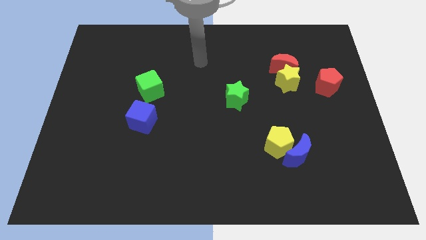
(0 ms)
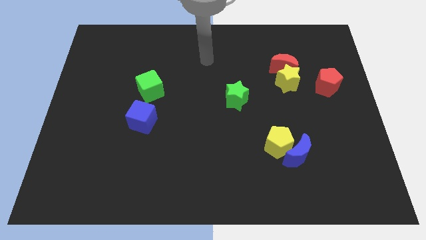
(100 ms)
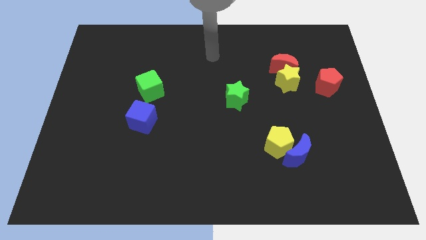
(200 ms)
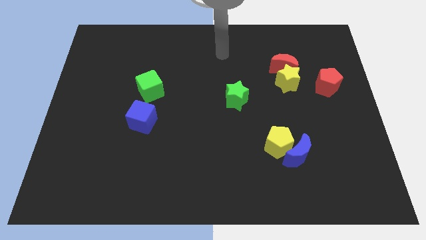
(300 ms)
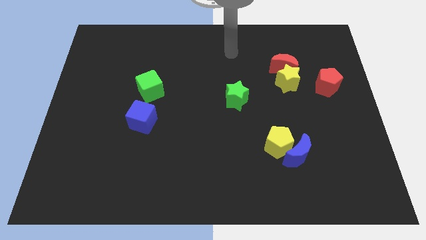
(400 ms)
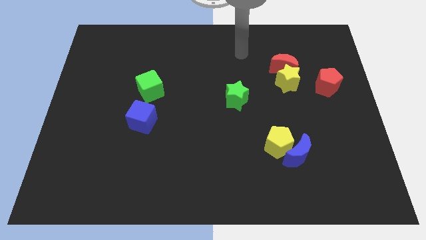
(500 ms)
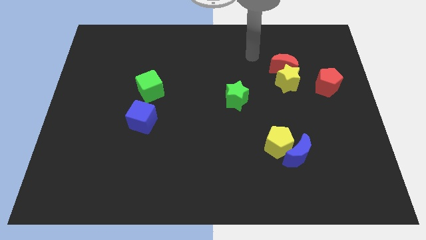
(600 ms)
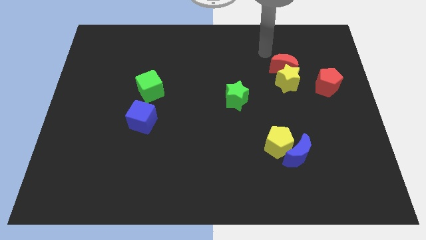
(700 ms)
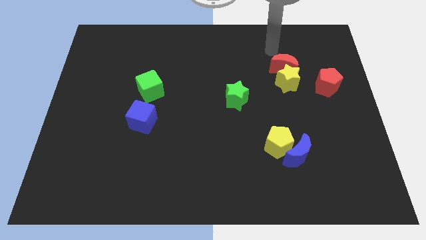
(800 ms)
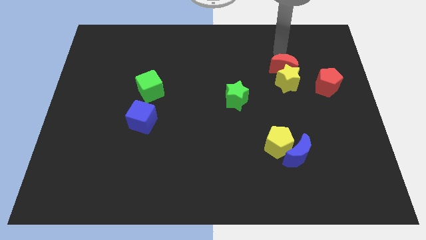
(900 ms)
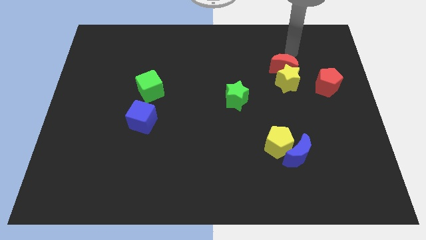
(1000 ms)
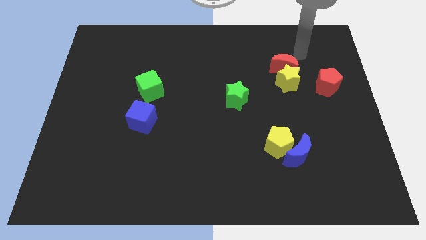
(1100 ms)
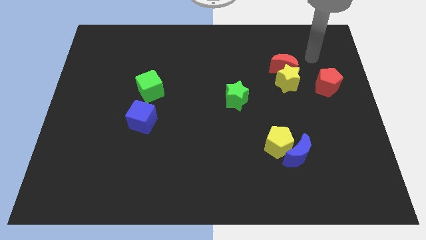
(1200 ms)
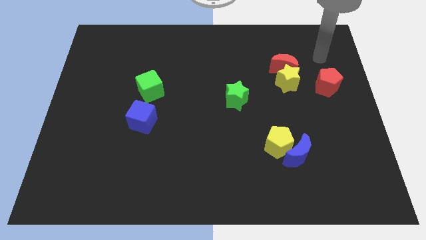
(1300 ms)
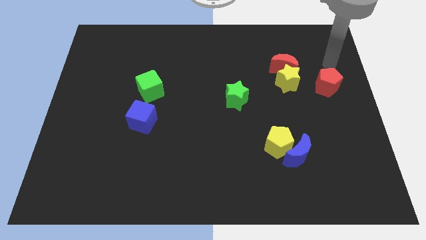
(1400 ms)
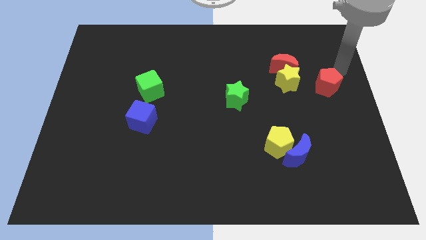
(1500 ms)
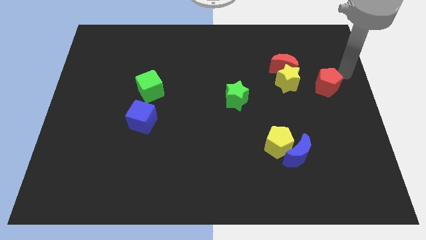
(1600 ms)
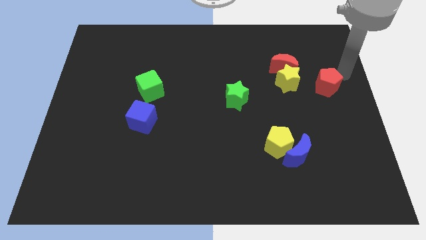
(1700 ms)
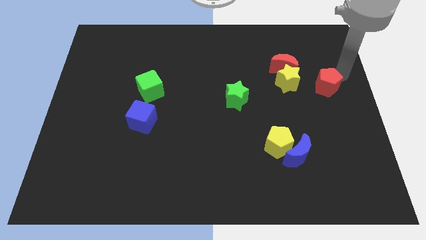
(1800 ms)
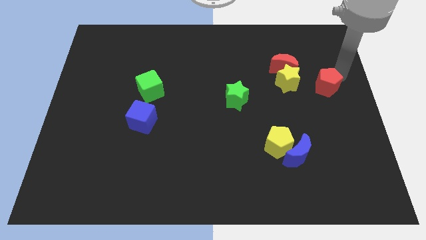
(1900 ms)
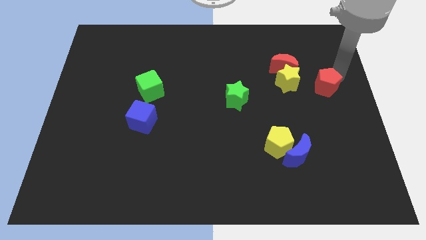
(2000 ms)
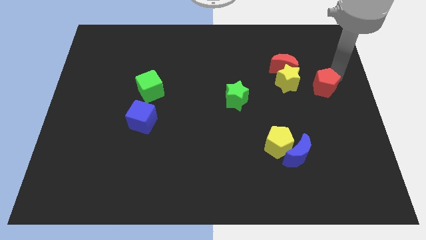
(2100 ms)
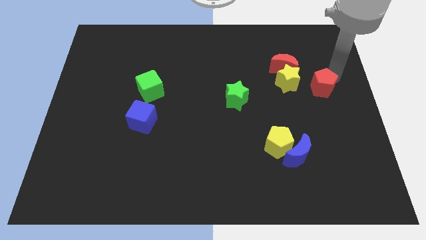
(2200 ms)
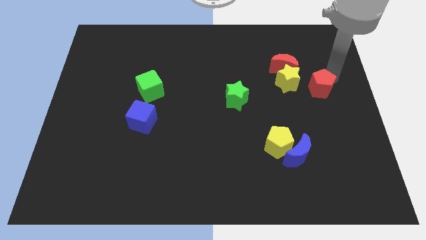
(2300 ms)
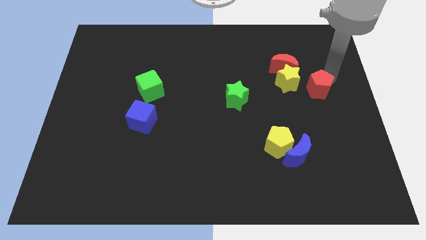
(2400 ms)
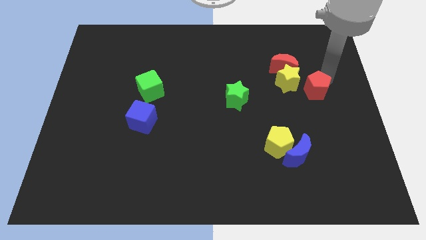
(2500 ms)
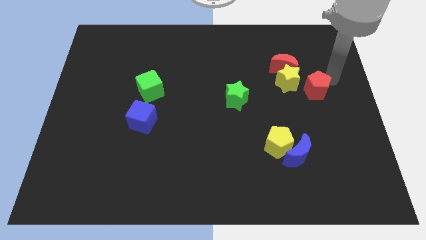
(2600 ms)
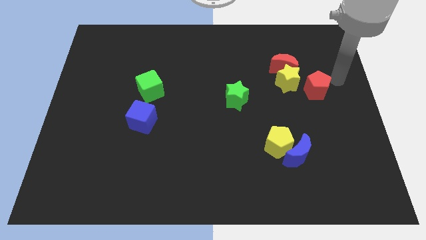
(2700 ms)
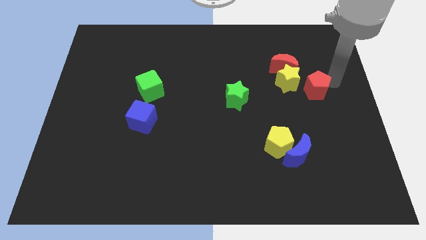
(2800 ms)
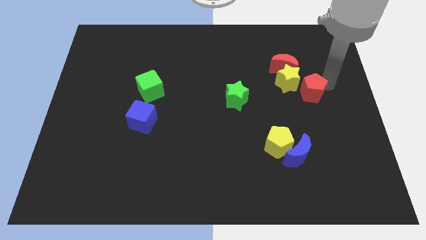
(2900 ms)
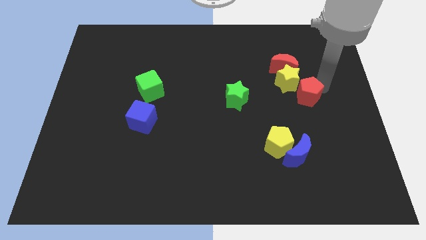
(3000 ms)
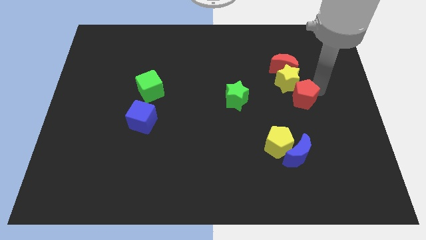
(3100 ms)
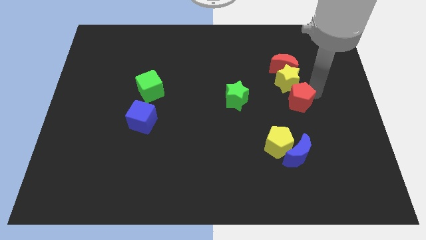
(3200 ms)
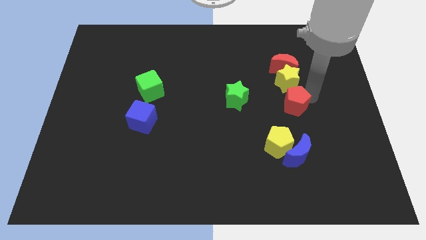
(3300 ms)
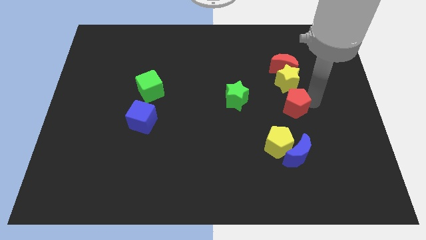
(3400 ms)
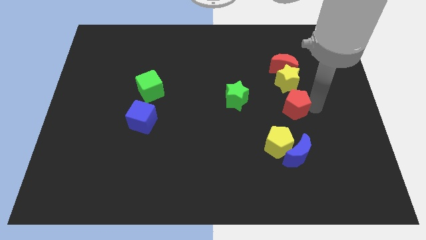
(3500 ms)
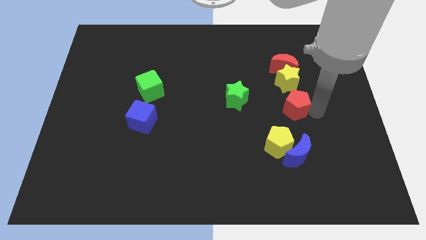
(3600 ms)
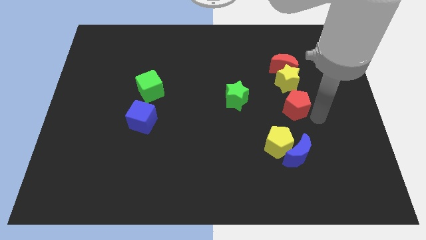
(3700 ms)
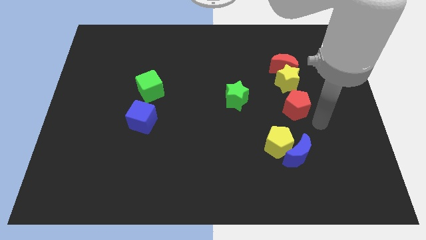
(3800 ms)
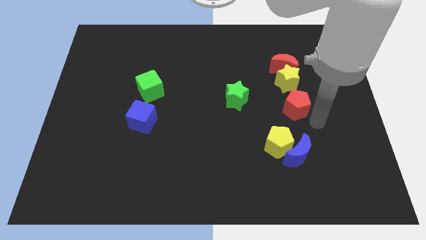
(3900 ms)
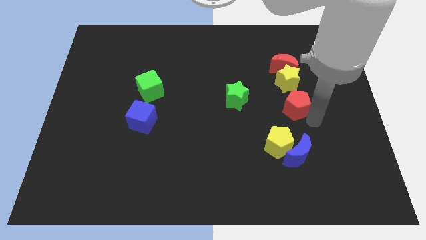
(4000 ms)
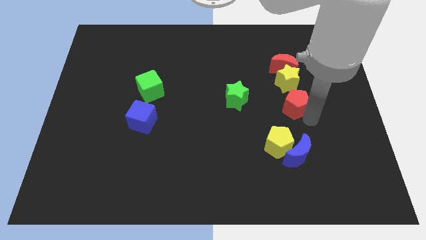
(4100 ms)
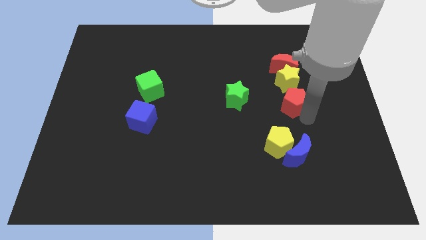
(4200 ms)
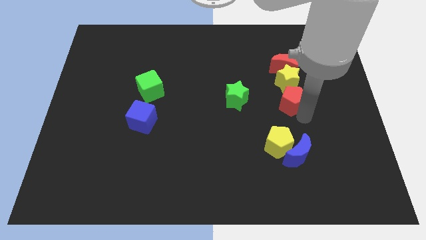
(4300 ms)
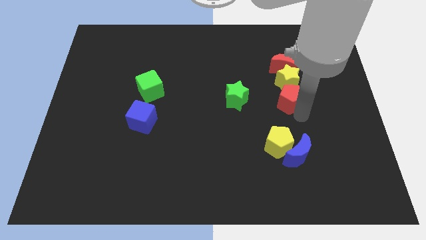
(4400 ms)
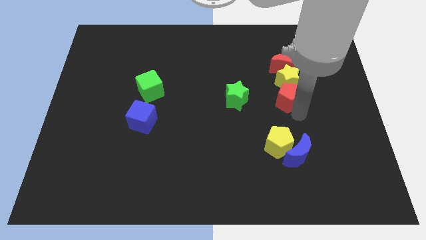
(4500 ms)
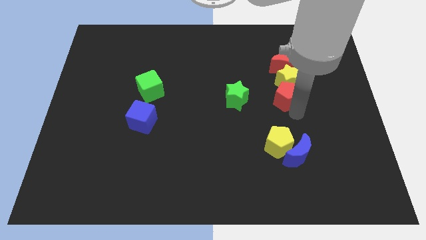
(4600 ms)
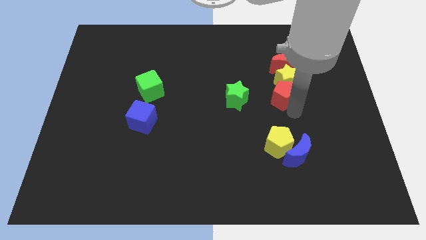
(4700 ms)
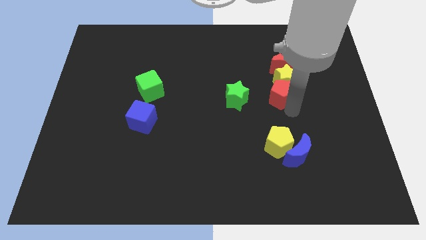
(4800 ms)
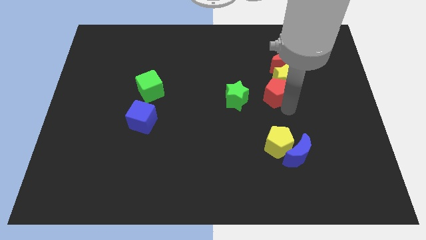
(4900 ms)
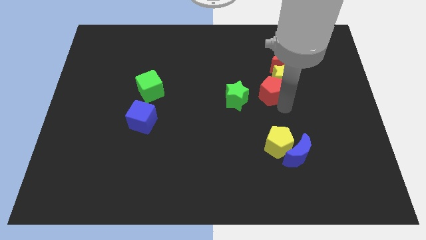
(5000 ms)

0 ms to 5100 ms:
push the red pentagon left of the yellow star

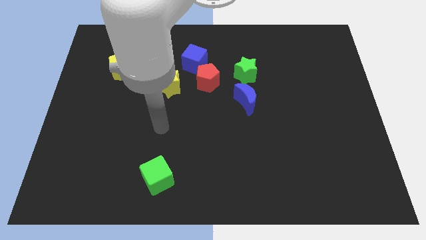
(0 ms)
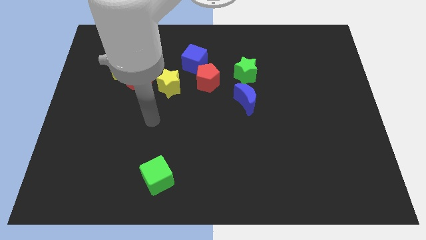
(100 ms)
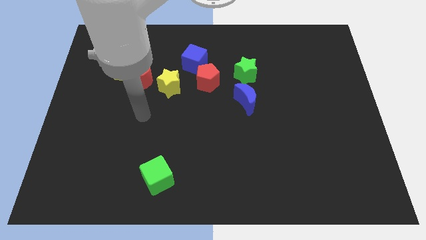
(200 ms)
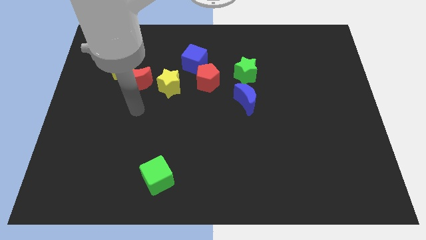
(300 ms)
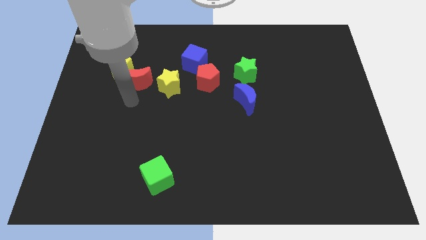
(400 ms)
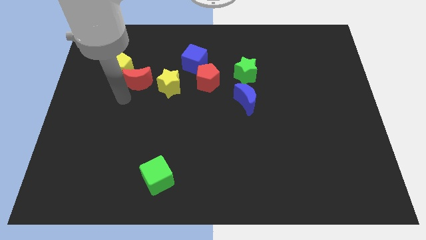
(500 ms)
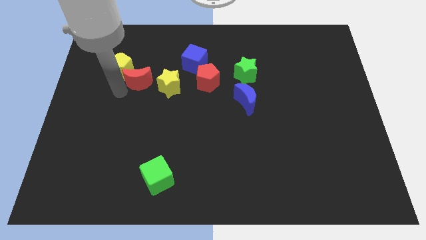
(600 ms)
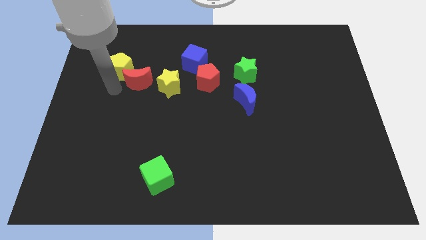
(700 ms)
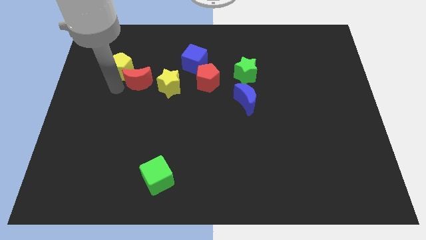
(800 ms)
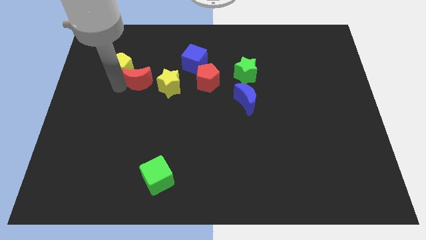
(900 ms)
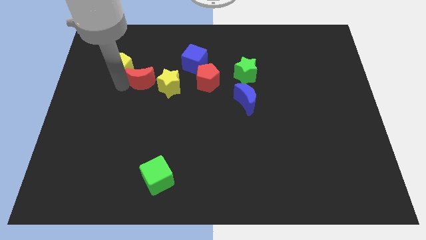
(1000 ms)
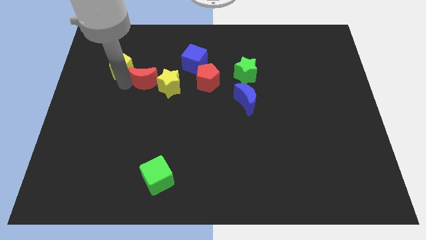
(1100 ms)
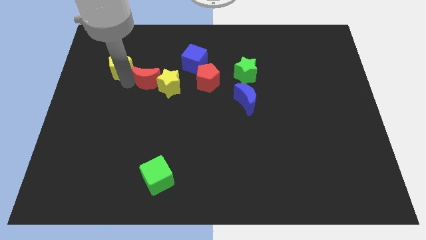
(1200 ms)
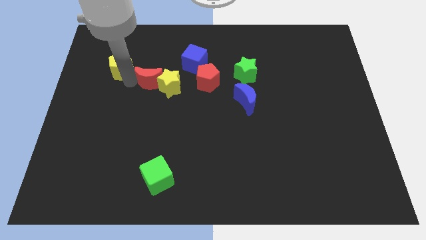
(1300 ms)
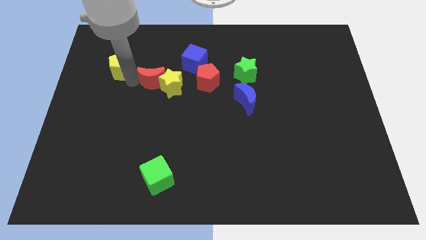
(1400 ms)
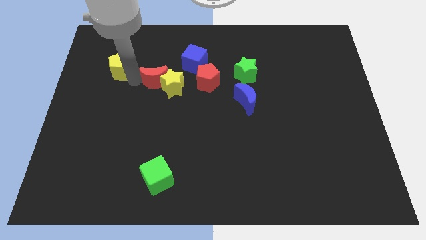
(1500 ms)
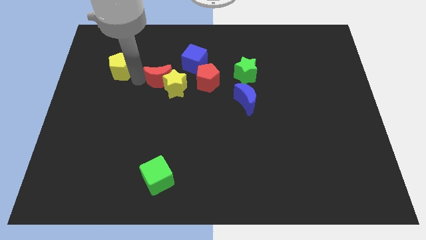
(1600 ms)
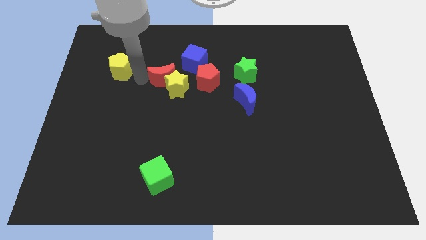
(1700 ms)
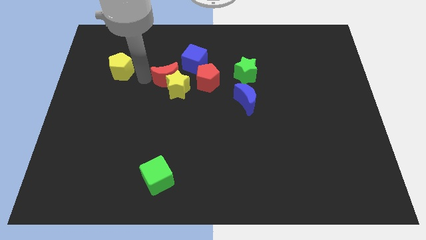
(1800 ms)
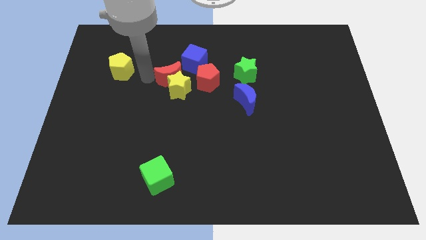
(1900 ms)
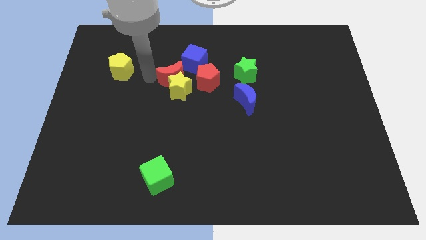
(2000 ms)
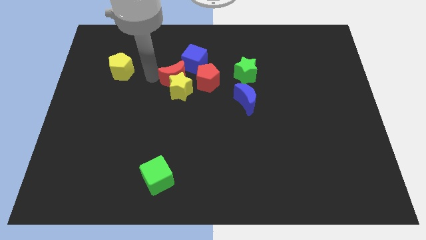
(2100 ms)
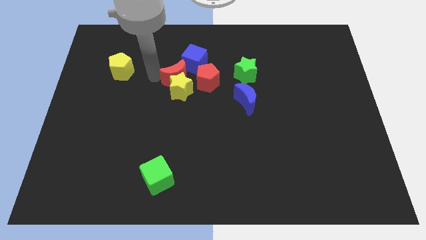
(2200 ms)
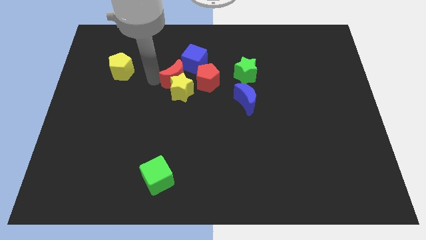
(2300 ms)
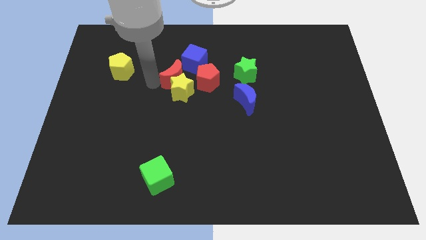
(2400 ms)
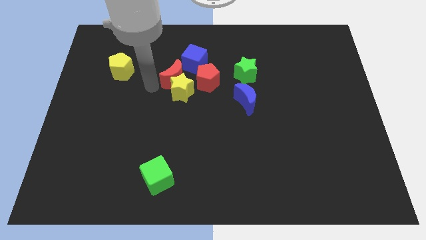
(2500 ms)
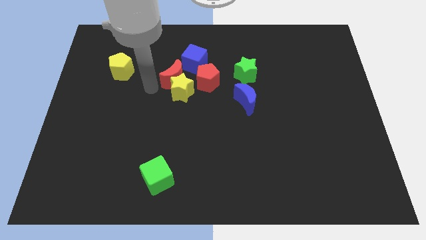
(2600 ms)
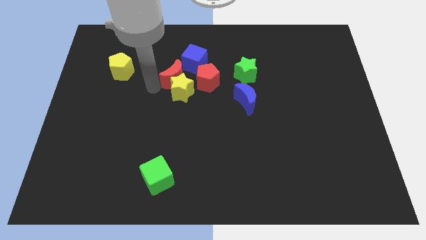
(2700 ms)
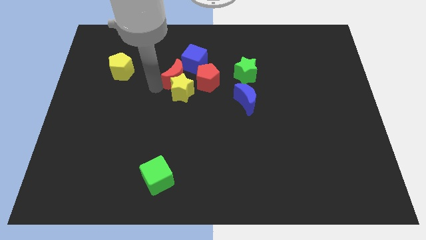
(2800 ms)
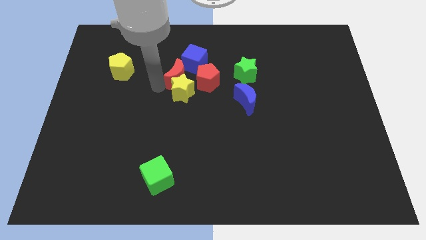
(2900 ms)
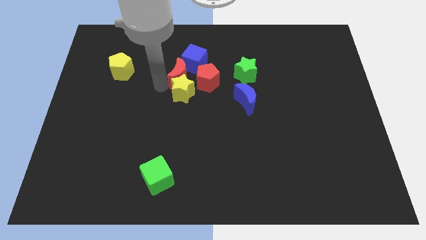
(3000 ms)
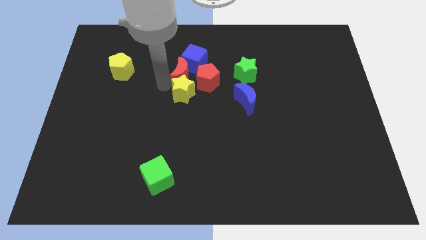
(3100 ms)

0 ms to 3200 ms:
push the red moon just left of the green star
